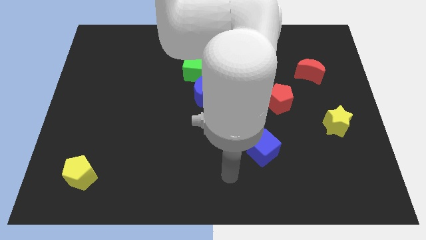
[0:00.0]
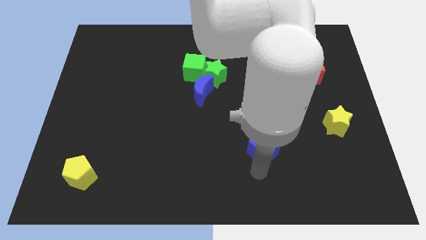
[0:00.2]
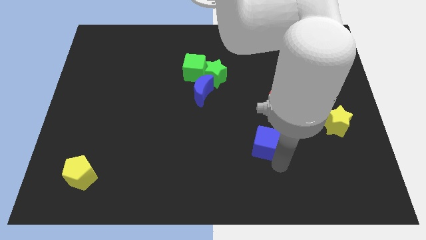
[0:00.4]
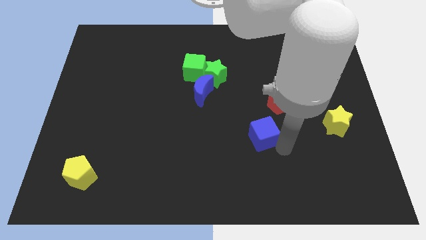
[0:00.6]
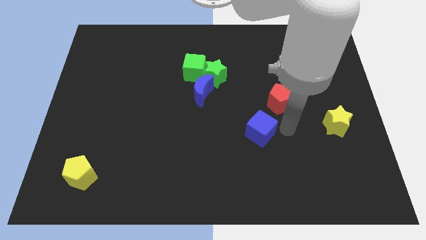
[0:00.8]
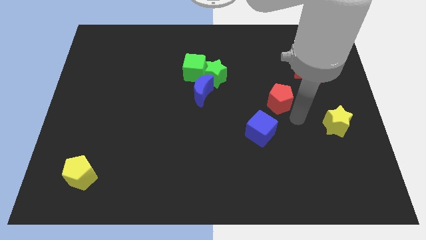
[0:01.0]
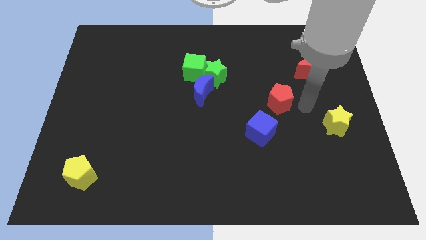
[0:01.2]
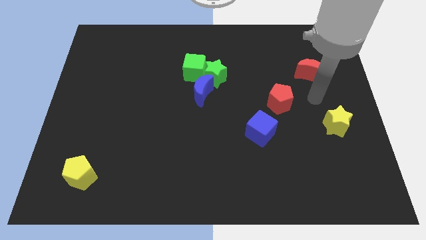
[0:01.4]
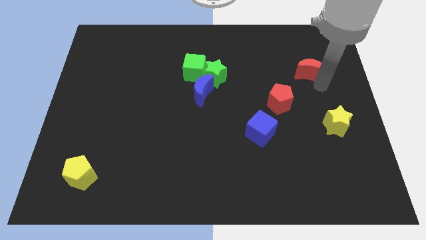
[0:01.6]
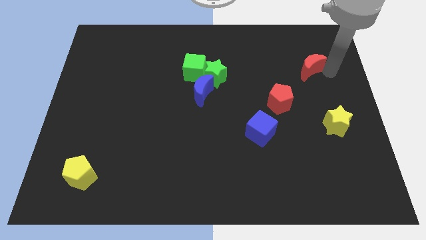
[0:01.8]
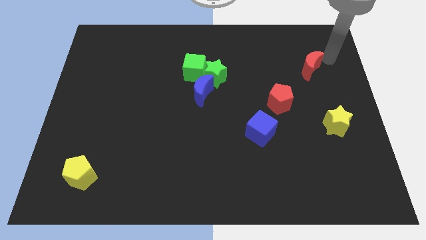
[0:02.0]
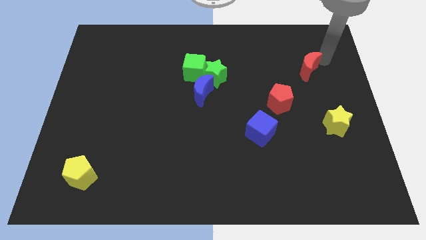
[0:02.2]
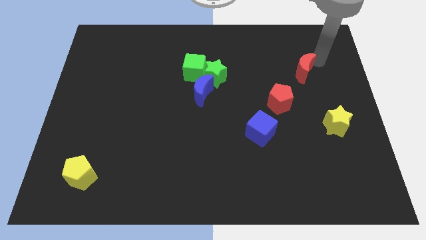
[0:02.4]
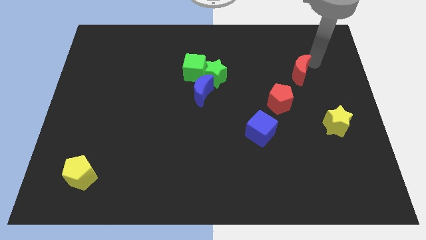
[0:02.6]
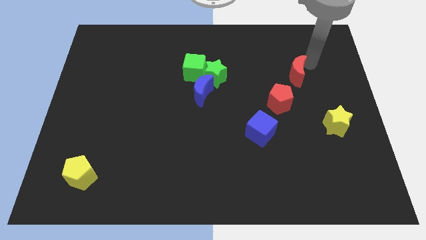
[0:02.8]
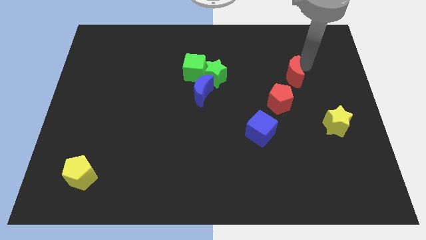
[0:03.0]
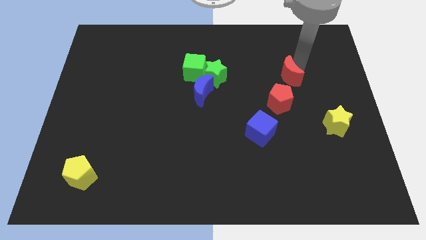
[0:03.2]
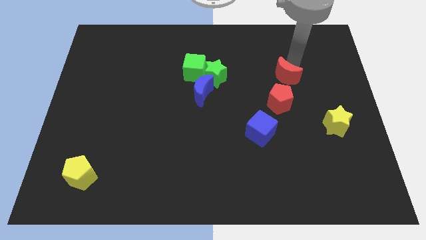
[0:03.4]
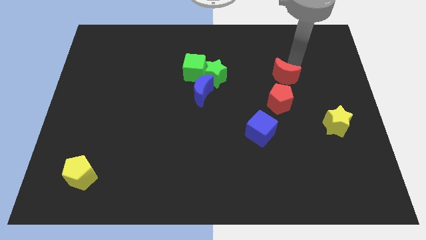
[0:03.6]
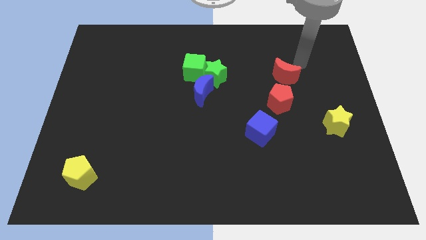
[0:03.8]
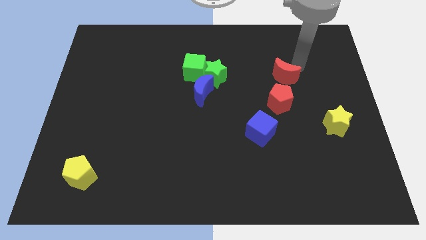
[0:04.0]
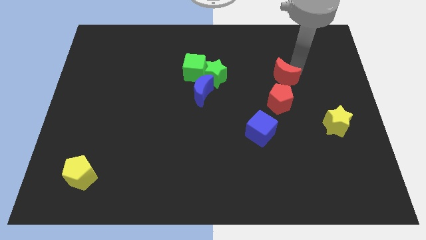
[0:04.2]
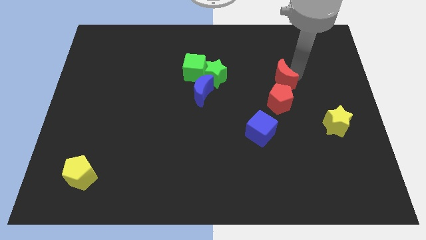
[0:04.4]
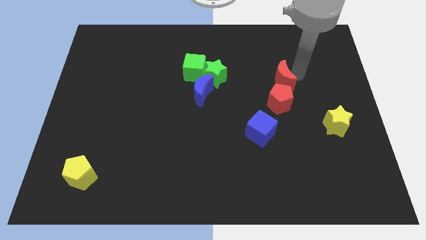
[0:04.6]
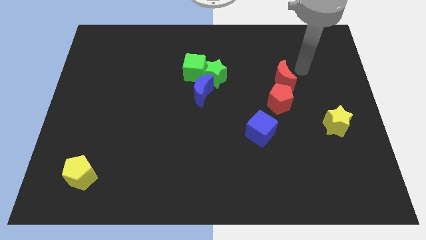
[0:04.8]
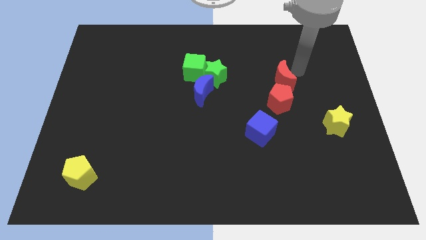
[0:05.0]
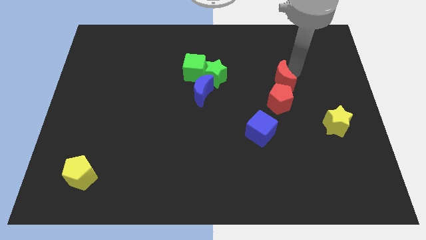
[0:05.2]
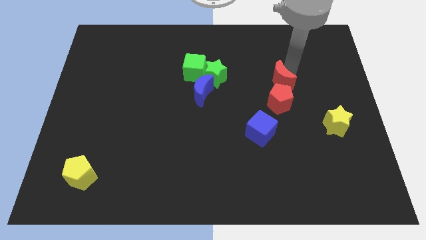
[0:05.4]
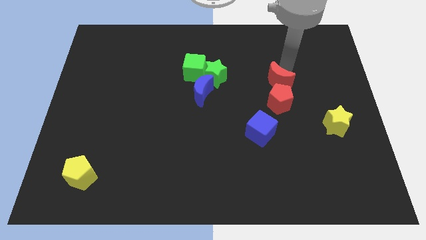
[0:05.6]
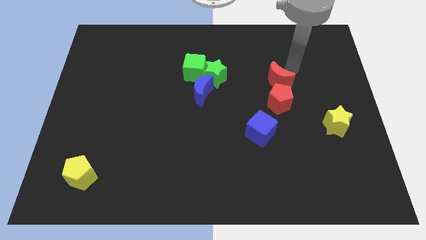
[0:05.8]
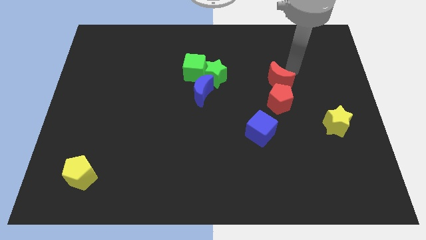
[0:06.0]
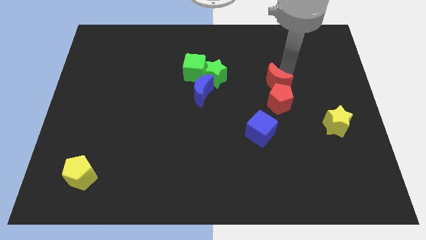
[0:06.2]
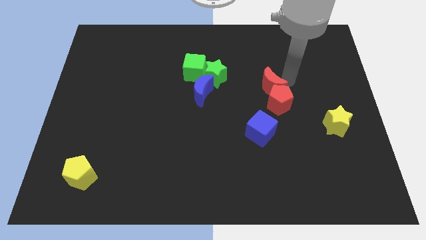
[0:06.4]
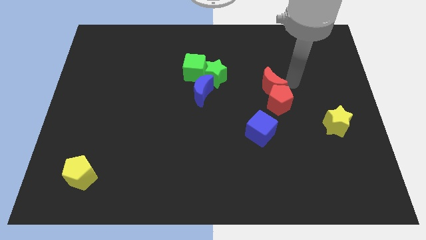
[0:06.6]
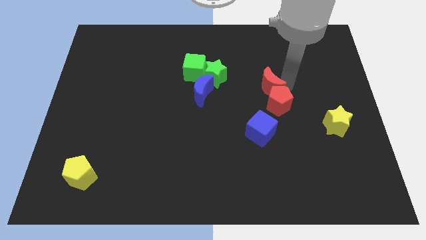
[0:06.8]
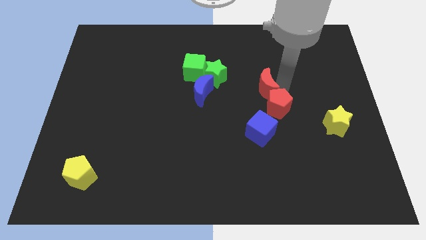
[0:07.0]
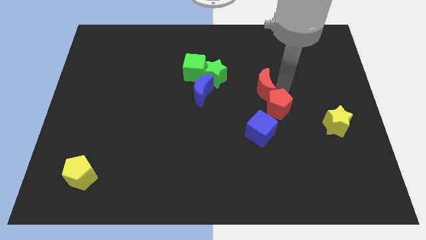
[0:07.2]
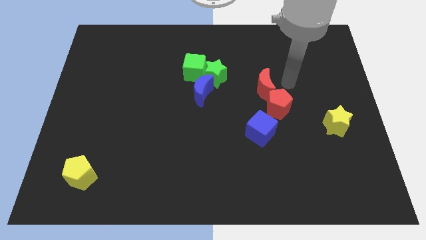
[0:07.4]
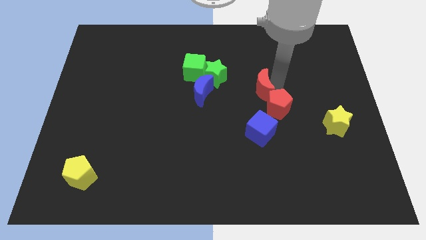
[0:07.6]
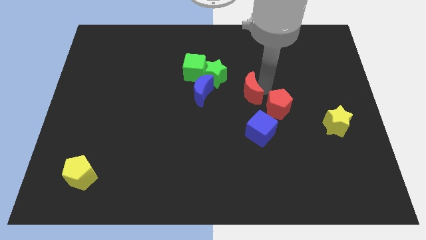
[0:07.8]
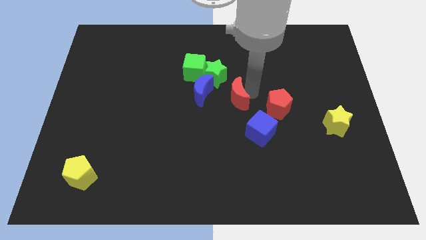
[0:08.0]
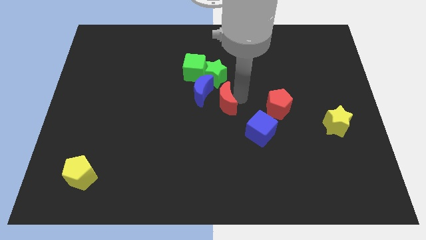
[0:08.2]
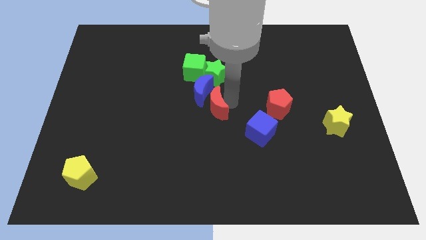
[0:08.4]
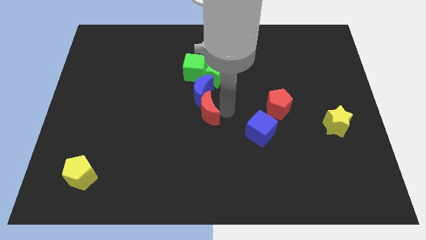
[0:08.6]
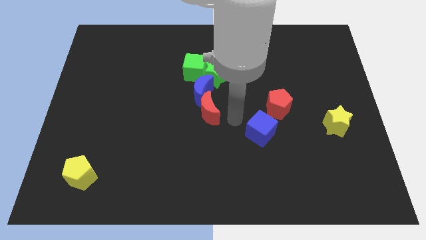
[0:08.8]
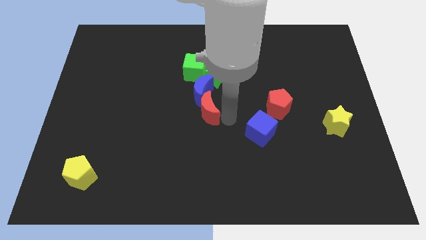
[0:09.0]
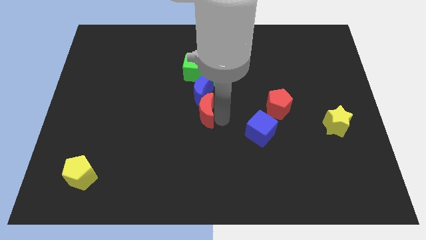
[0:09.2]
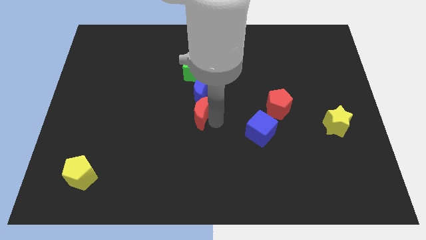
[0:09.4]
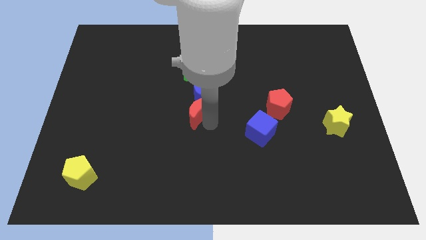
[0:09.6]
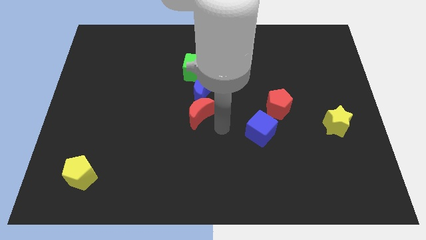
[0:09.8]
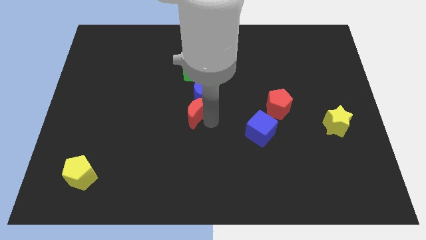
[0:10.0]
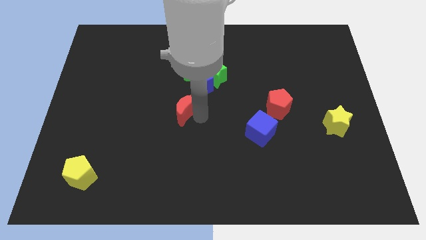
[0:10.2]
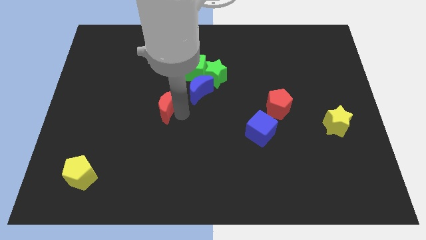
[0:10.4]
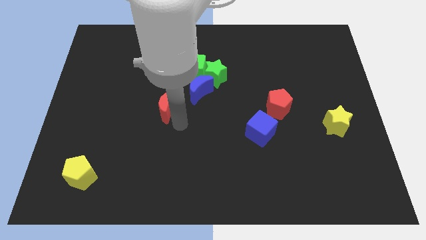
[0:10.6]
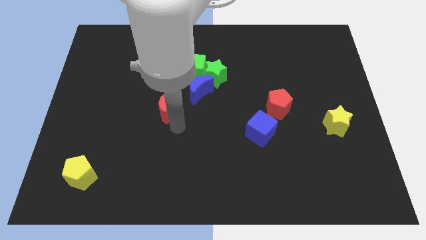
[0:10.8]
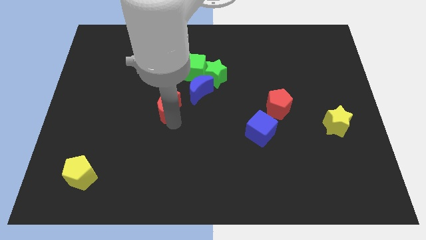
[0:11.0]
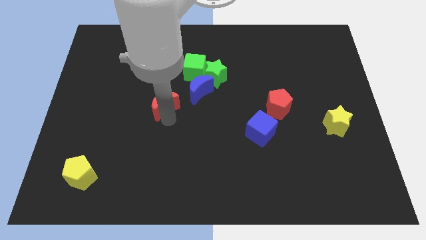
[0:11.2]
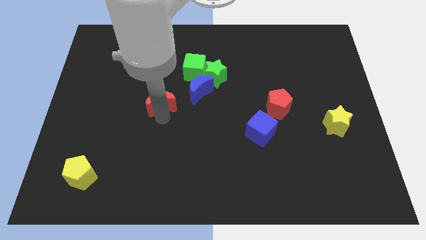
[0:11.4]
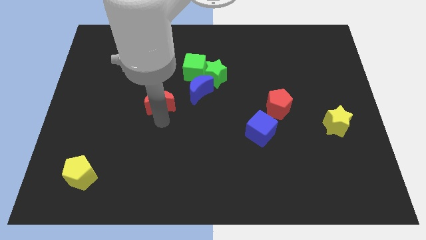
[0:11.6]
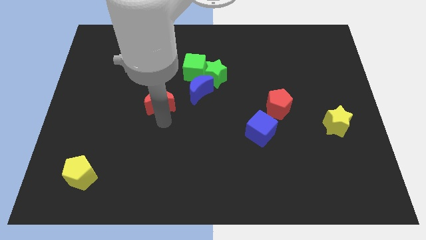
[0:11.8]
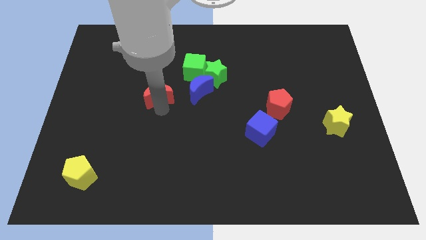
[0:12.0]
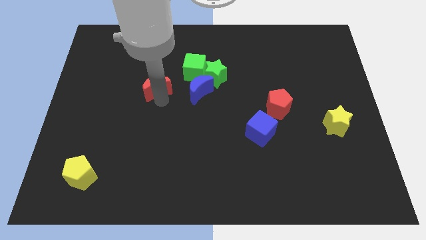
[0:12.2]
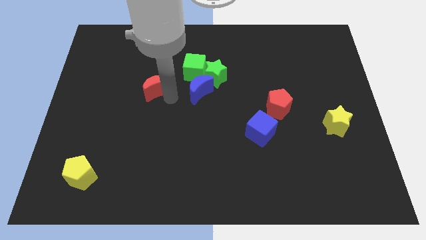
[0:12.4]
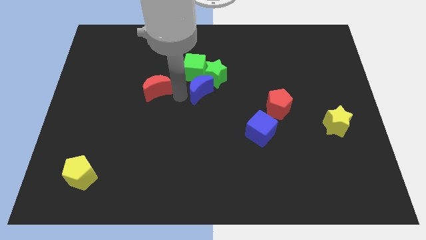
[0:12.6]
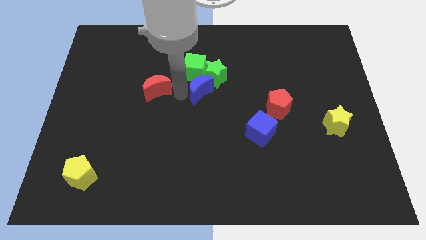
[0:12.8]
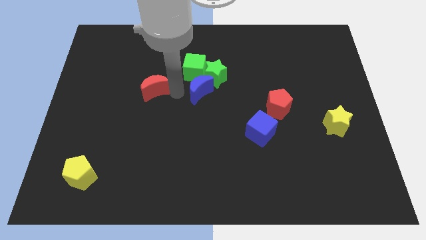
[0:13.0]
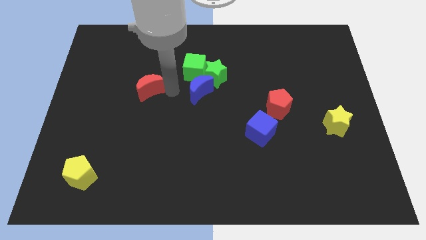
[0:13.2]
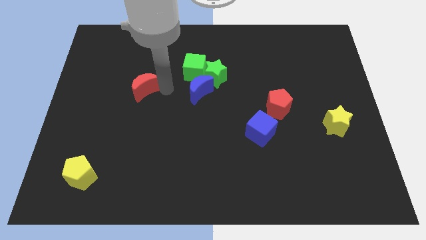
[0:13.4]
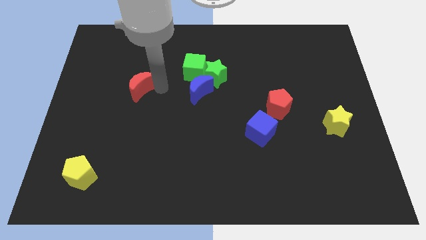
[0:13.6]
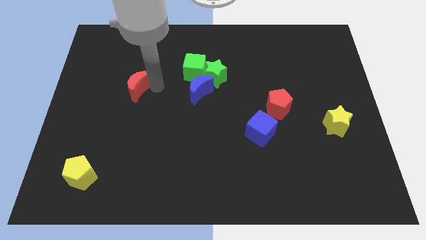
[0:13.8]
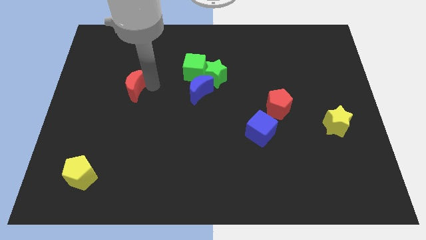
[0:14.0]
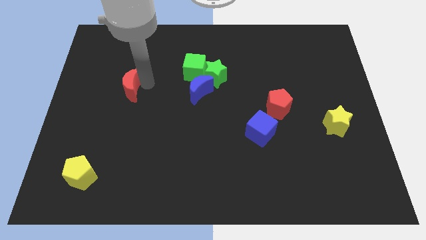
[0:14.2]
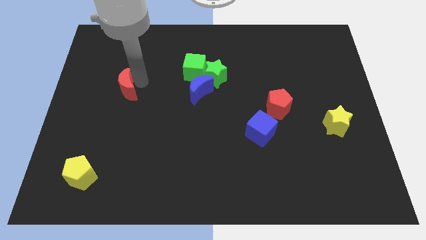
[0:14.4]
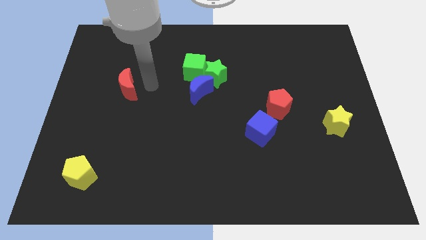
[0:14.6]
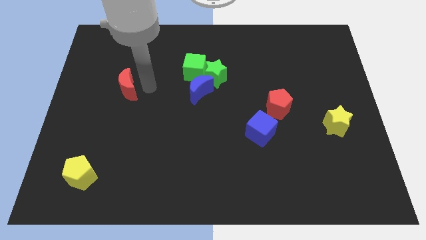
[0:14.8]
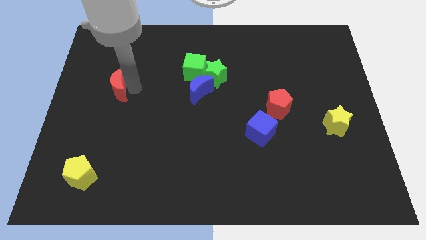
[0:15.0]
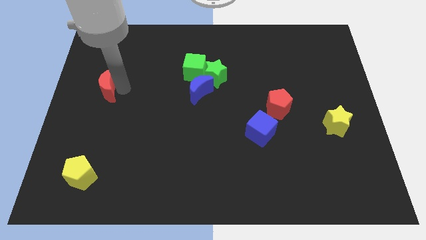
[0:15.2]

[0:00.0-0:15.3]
slide the red moon to the left side of the board
